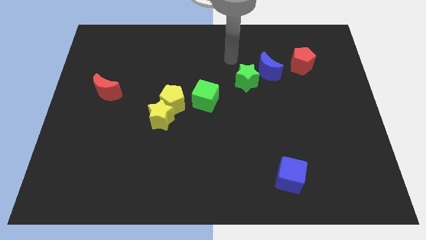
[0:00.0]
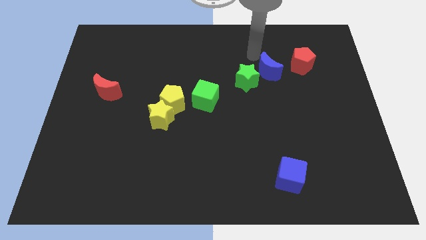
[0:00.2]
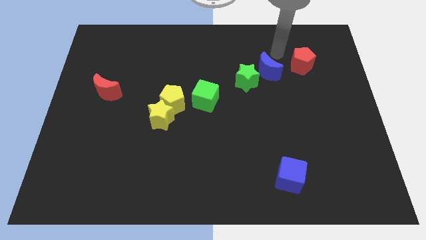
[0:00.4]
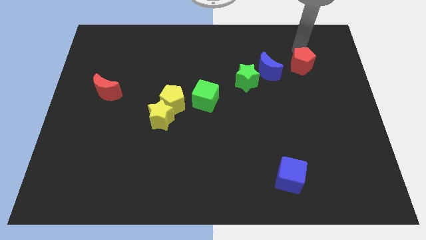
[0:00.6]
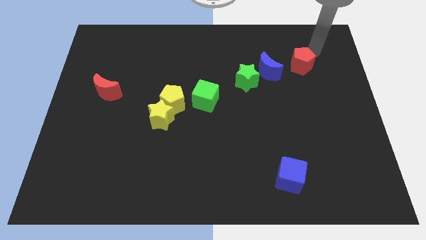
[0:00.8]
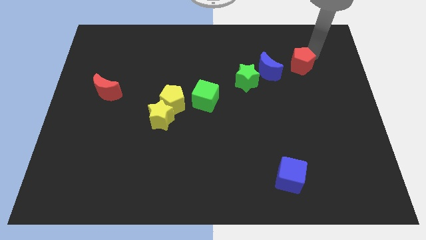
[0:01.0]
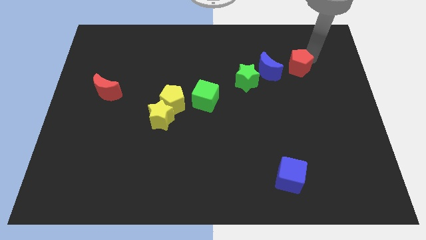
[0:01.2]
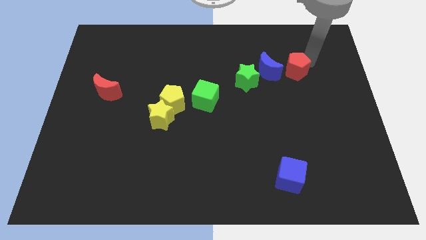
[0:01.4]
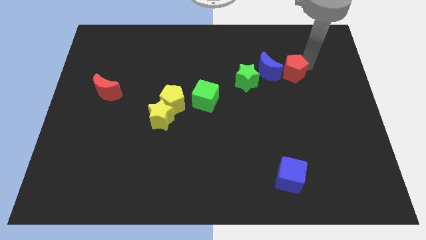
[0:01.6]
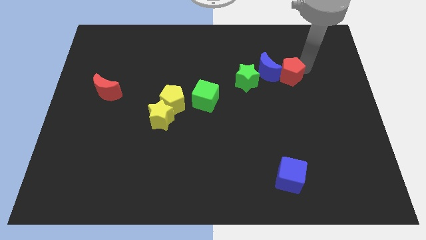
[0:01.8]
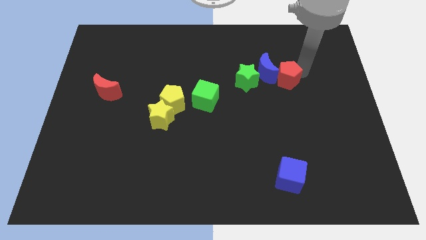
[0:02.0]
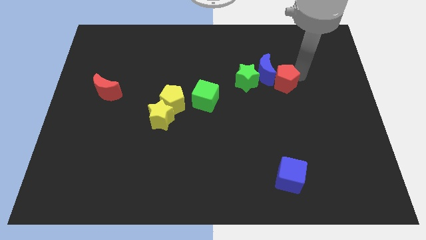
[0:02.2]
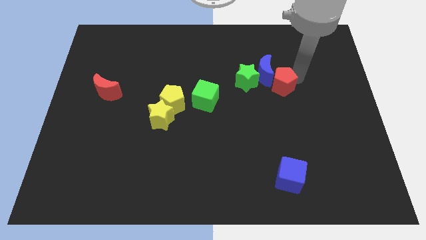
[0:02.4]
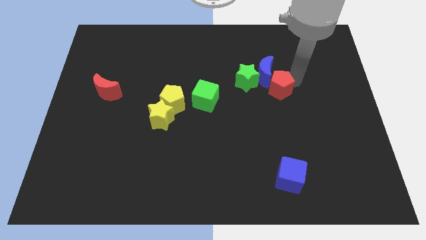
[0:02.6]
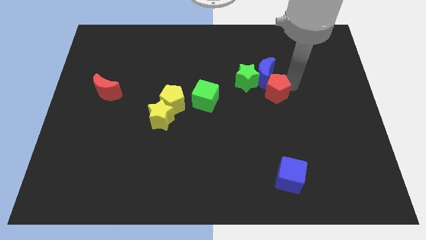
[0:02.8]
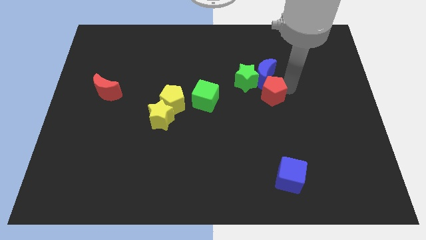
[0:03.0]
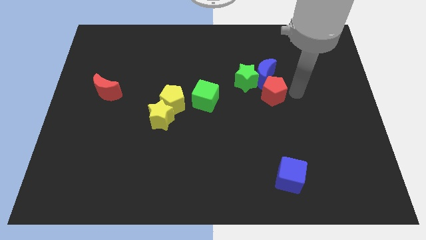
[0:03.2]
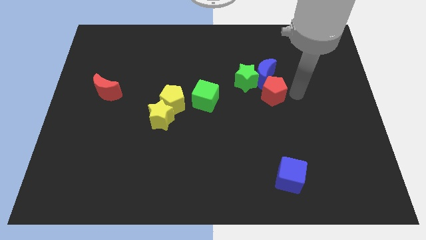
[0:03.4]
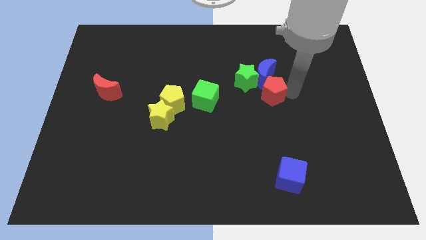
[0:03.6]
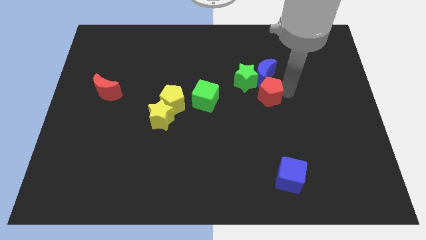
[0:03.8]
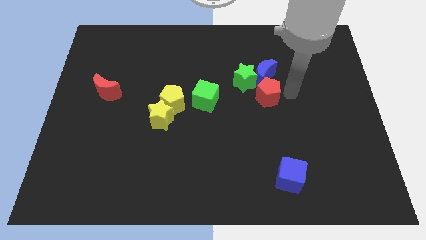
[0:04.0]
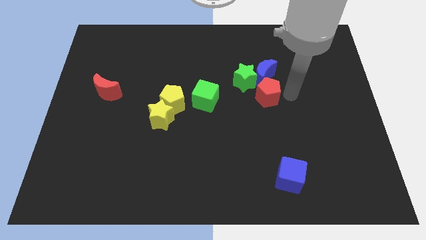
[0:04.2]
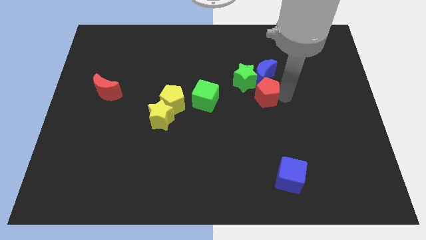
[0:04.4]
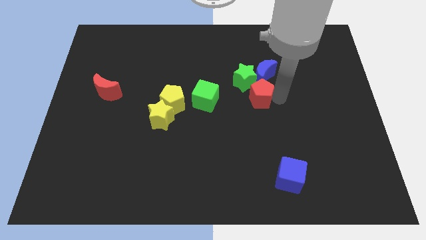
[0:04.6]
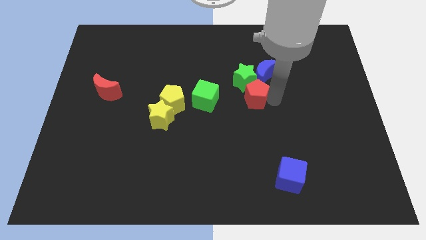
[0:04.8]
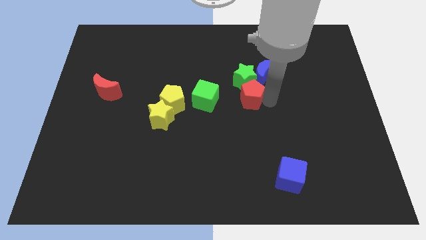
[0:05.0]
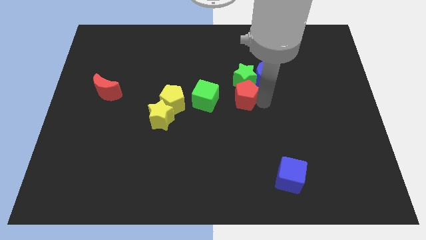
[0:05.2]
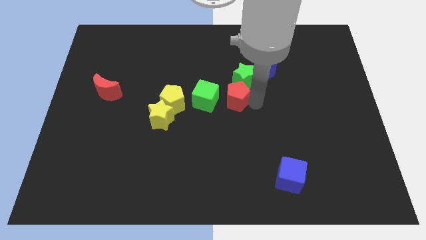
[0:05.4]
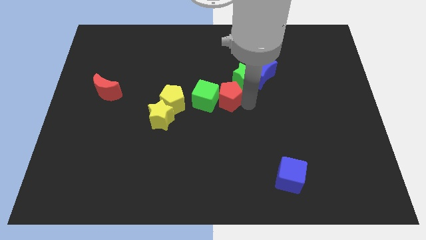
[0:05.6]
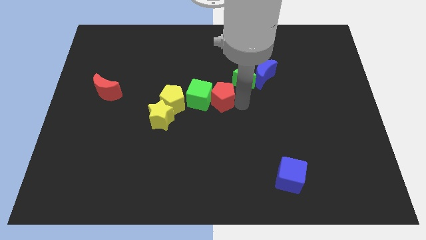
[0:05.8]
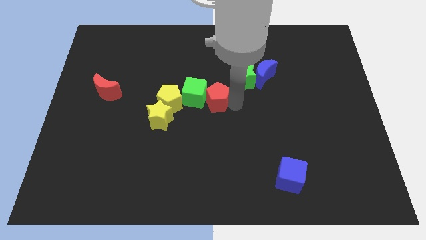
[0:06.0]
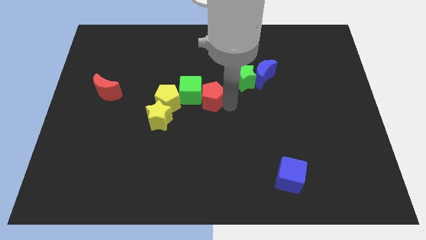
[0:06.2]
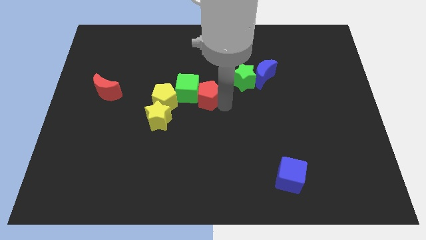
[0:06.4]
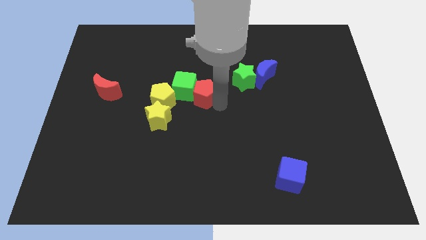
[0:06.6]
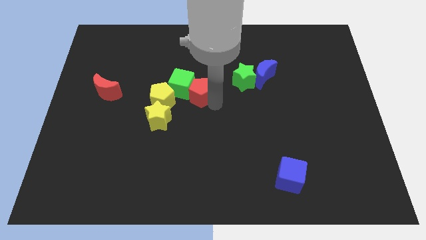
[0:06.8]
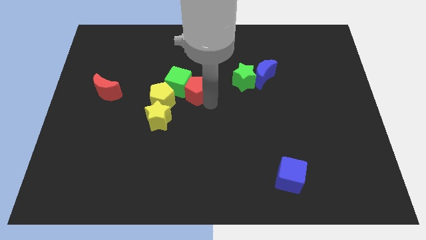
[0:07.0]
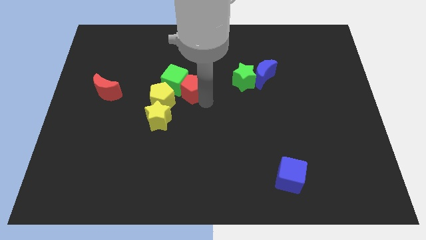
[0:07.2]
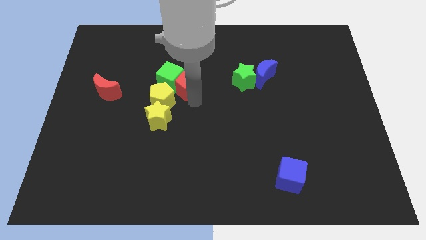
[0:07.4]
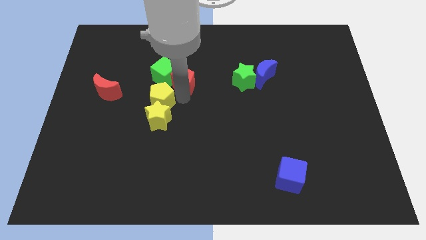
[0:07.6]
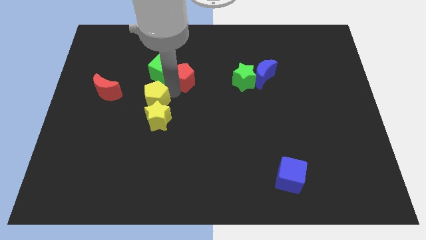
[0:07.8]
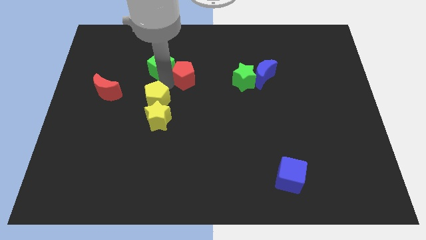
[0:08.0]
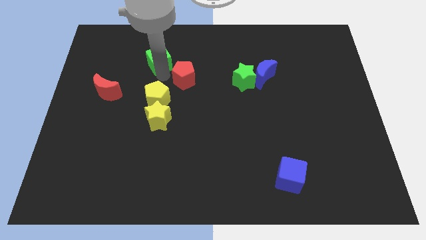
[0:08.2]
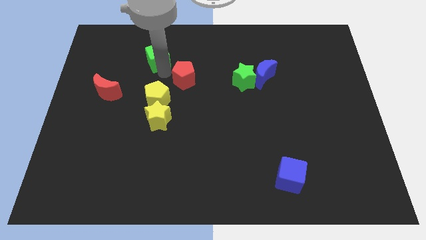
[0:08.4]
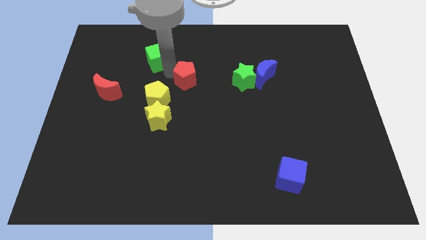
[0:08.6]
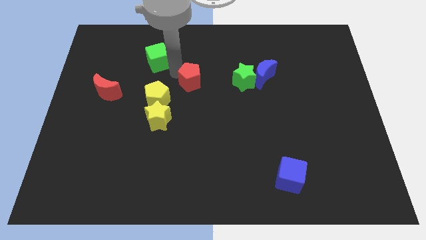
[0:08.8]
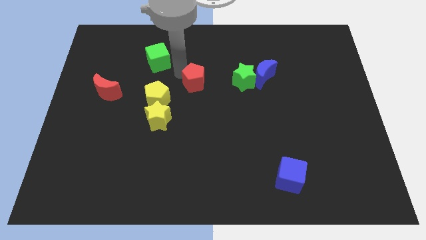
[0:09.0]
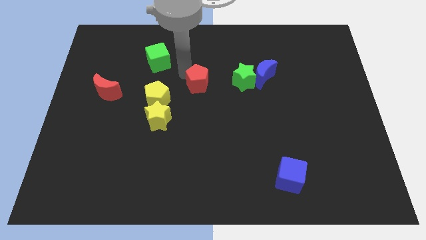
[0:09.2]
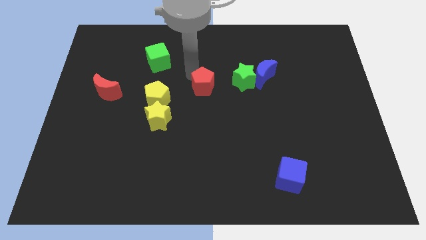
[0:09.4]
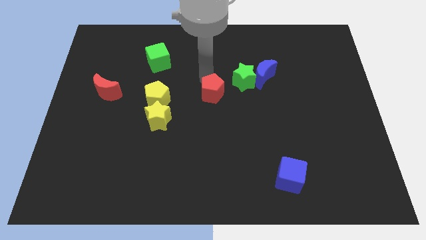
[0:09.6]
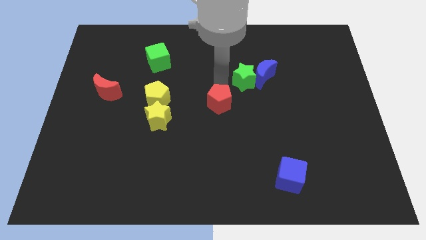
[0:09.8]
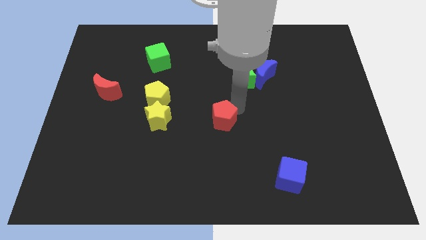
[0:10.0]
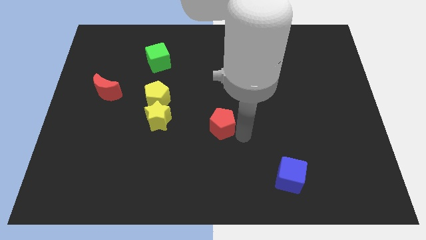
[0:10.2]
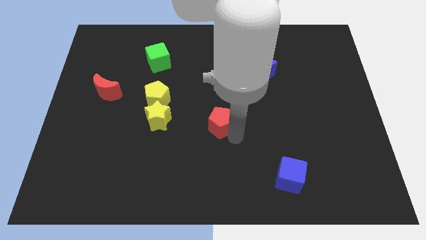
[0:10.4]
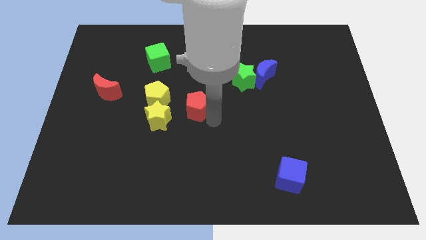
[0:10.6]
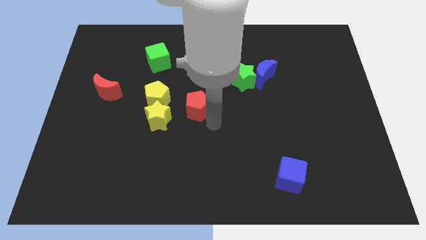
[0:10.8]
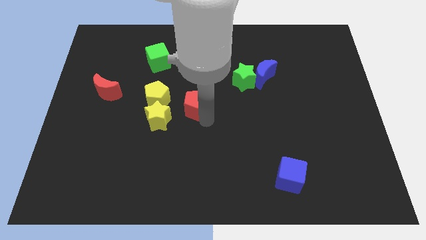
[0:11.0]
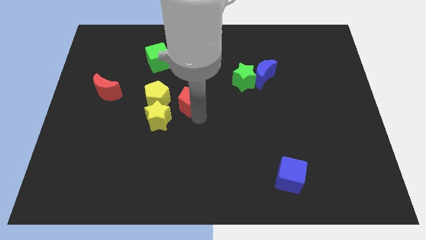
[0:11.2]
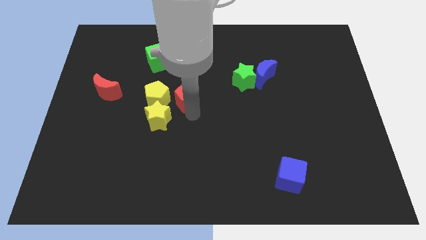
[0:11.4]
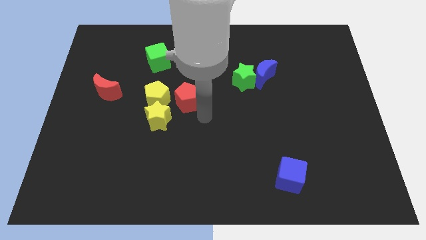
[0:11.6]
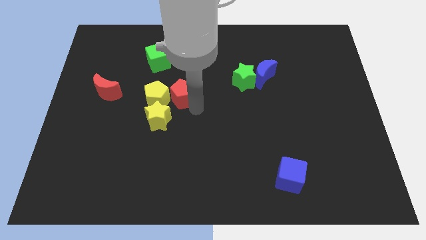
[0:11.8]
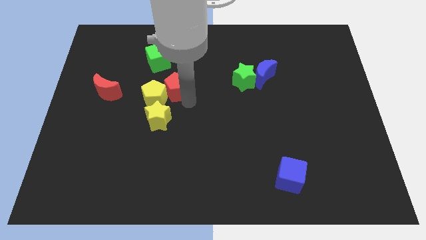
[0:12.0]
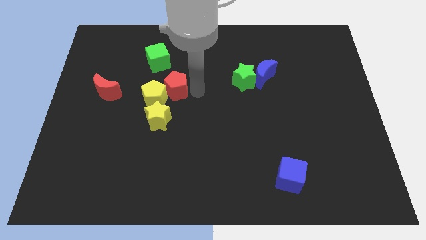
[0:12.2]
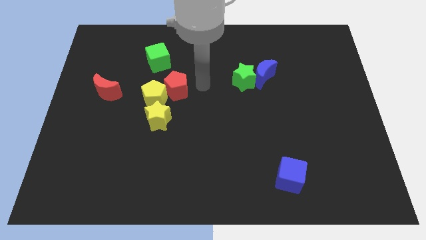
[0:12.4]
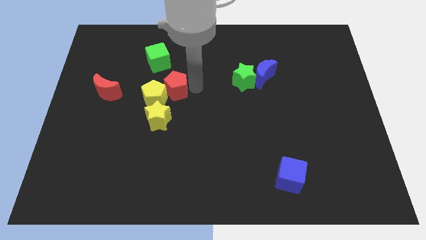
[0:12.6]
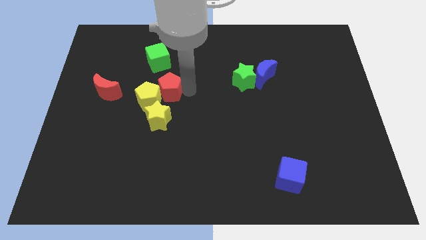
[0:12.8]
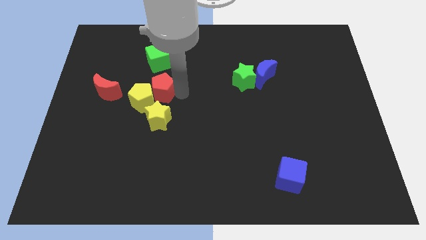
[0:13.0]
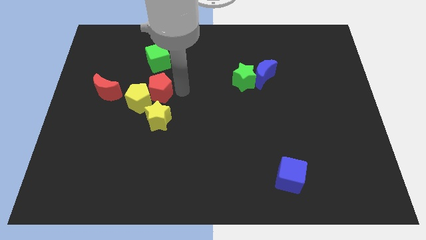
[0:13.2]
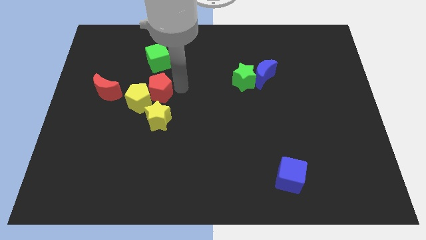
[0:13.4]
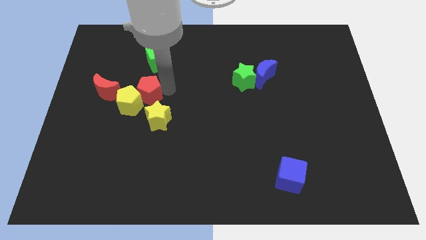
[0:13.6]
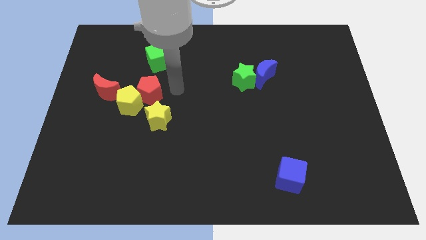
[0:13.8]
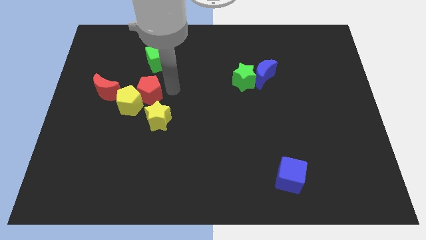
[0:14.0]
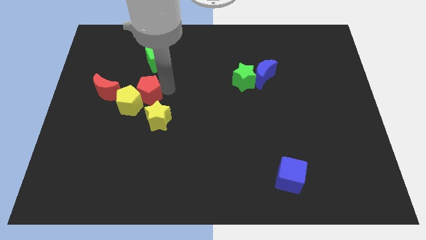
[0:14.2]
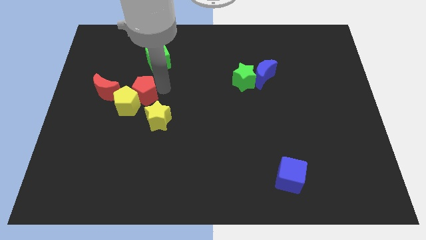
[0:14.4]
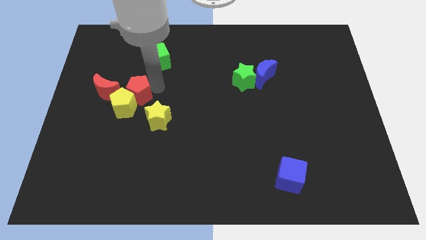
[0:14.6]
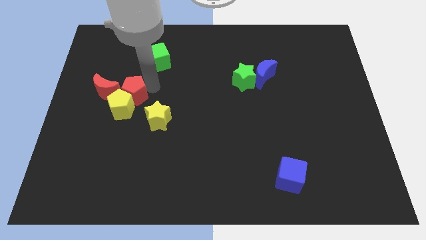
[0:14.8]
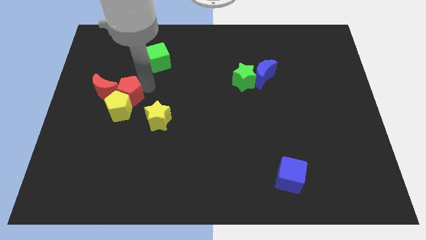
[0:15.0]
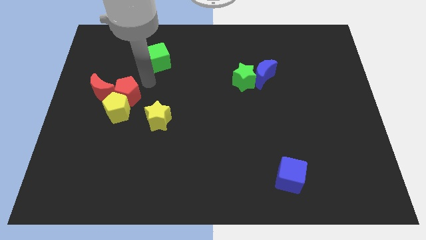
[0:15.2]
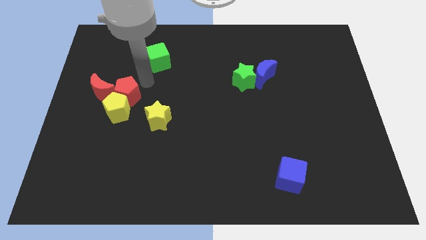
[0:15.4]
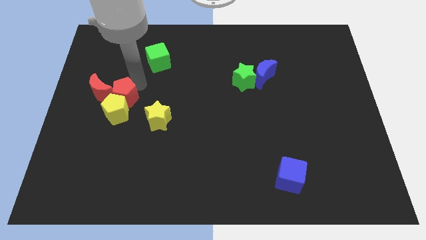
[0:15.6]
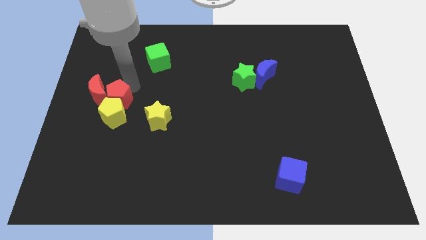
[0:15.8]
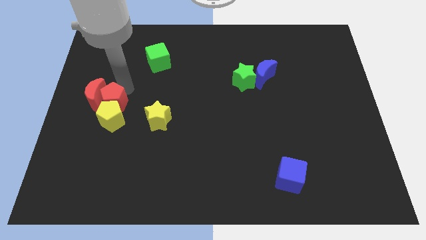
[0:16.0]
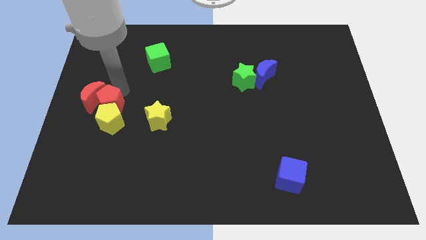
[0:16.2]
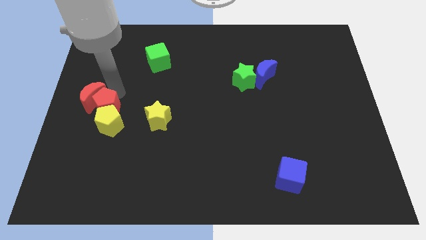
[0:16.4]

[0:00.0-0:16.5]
push the red pentagon to the left side
